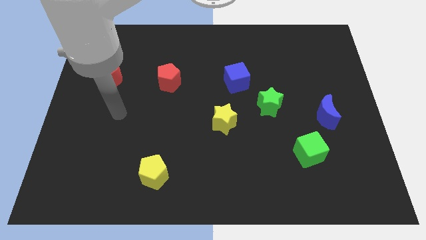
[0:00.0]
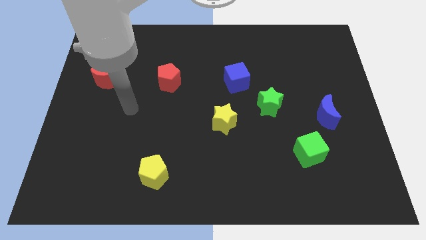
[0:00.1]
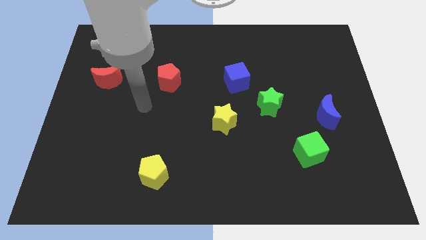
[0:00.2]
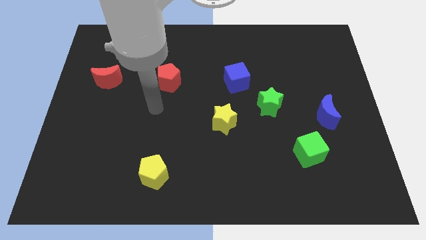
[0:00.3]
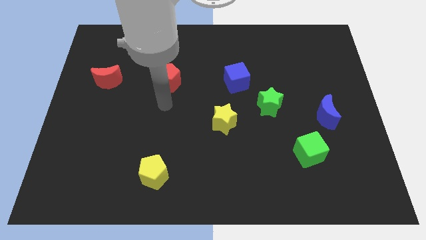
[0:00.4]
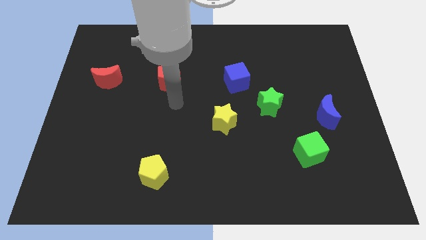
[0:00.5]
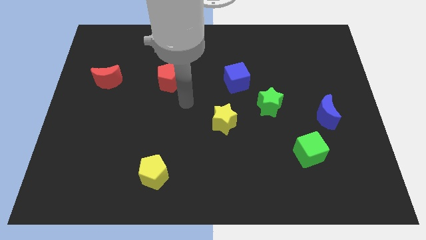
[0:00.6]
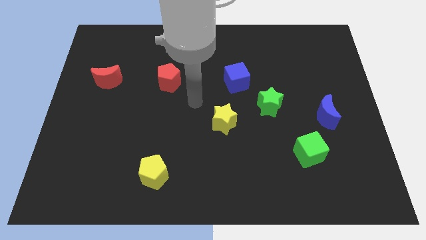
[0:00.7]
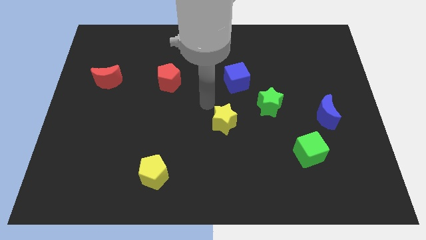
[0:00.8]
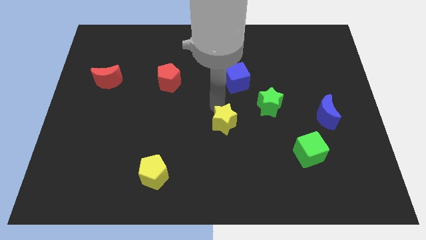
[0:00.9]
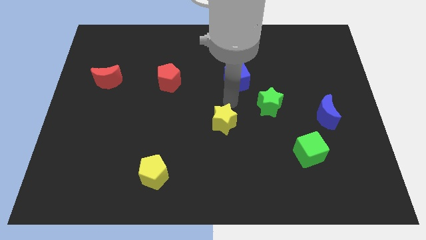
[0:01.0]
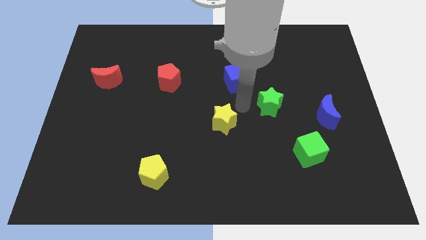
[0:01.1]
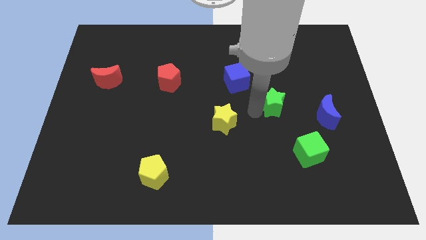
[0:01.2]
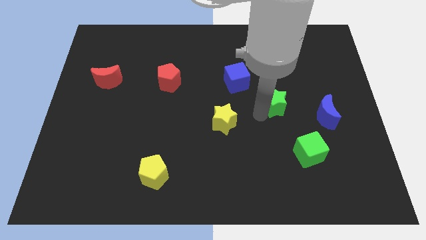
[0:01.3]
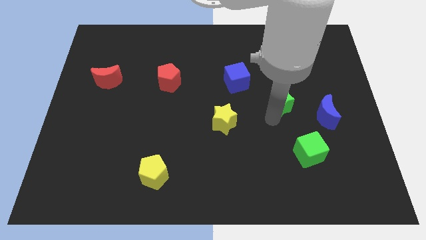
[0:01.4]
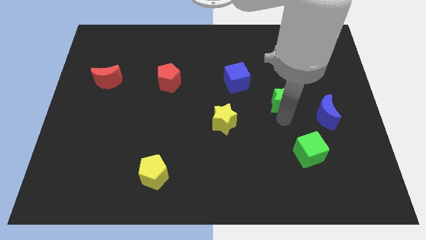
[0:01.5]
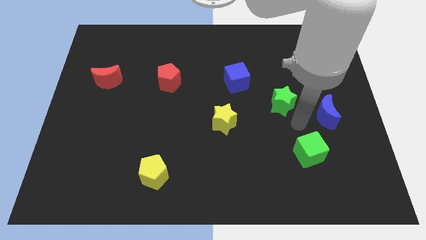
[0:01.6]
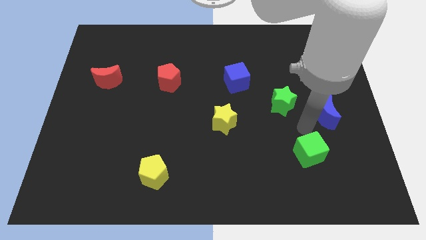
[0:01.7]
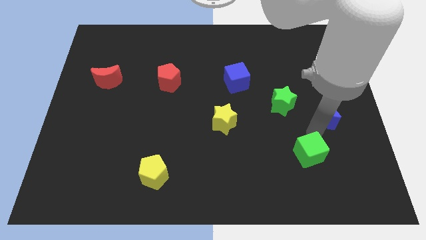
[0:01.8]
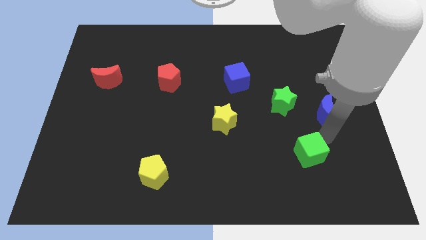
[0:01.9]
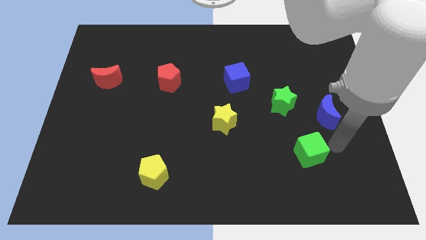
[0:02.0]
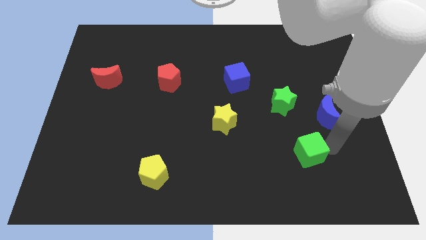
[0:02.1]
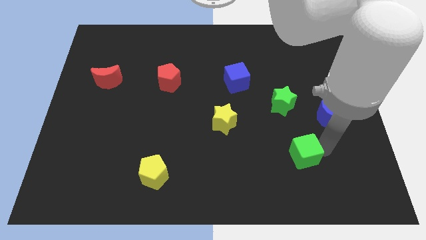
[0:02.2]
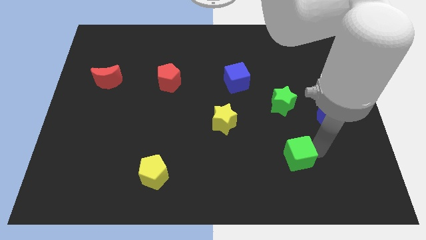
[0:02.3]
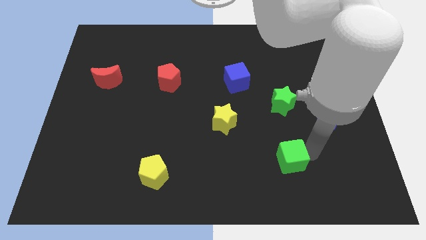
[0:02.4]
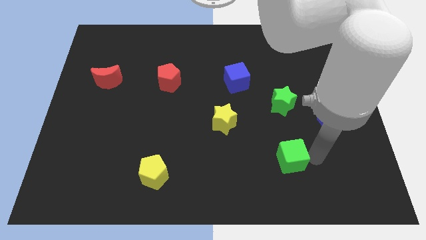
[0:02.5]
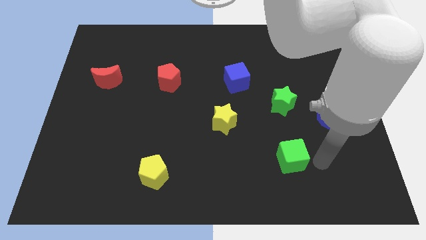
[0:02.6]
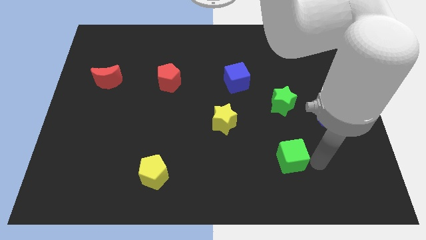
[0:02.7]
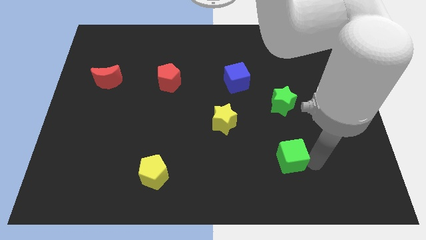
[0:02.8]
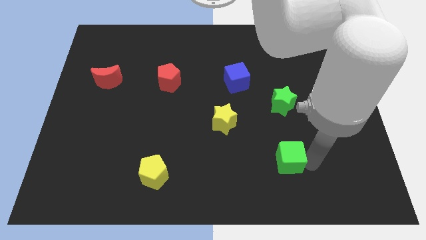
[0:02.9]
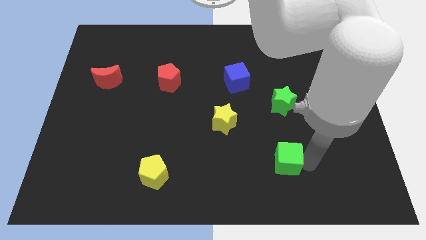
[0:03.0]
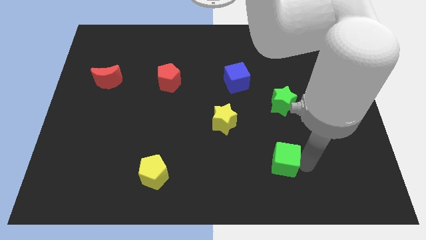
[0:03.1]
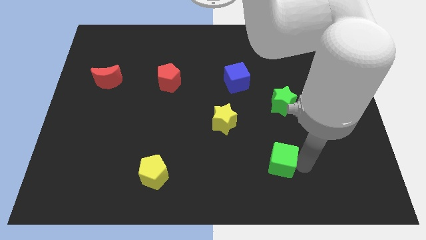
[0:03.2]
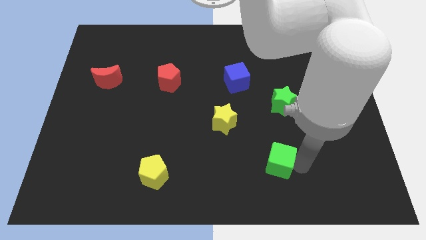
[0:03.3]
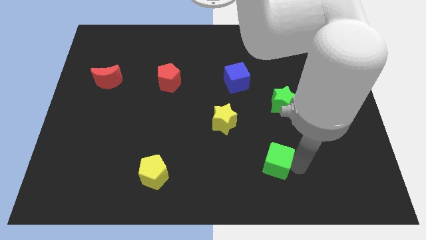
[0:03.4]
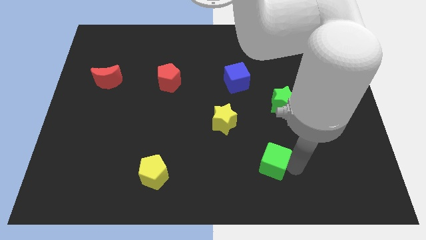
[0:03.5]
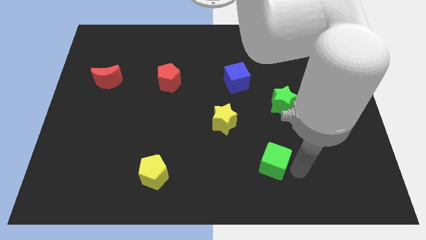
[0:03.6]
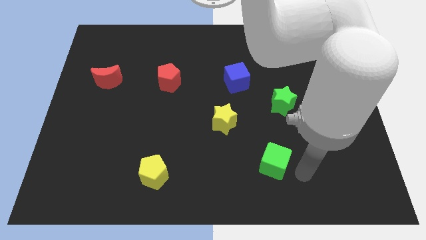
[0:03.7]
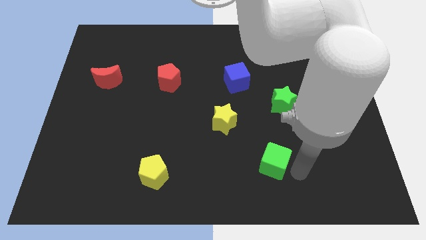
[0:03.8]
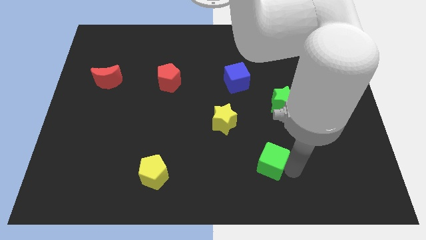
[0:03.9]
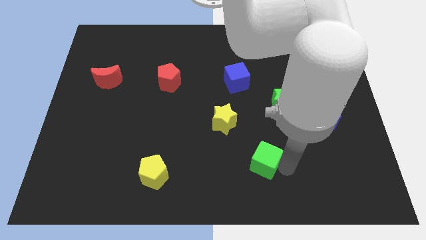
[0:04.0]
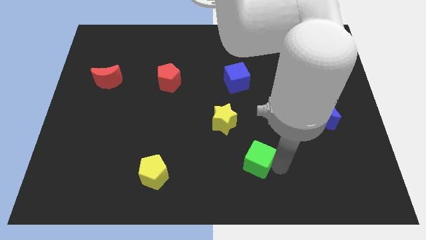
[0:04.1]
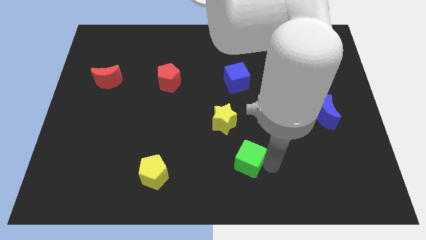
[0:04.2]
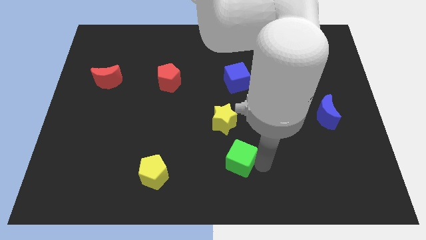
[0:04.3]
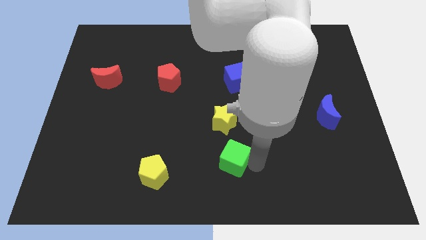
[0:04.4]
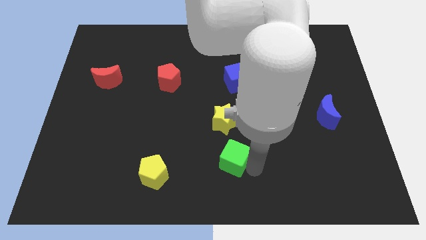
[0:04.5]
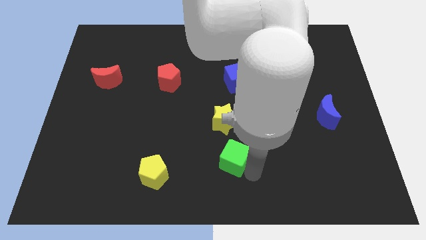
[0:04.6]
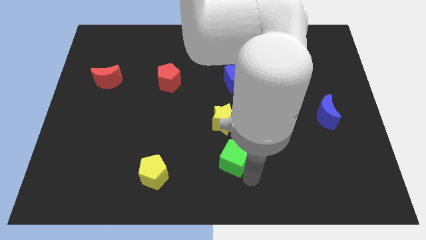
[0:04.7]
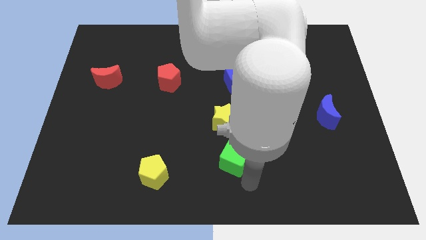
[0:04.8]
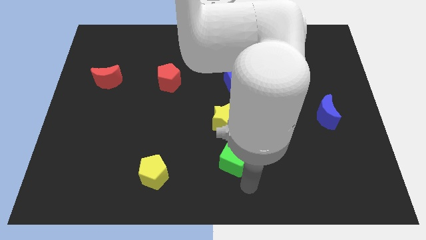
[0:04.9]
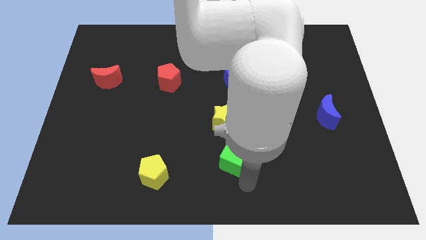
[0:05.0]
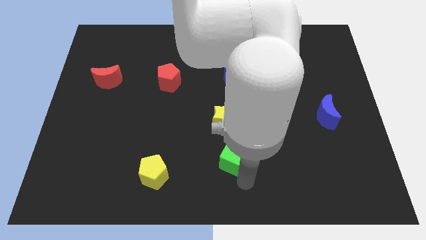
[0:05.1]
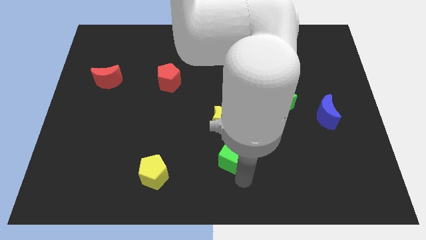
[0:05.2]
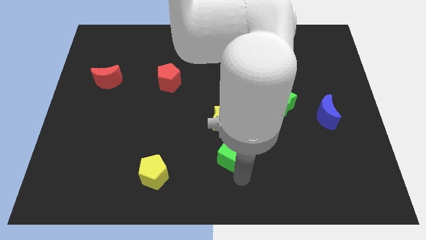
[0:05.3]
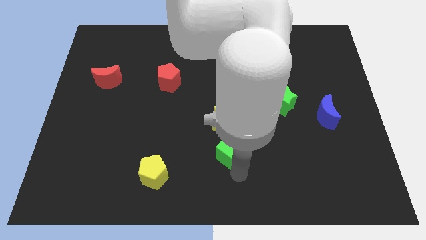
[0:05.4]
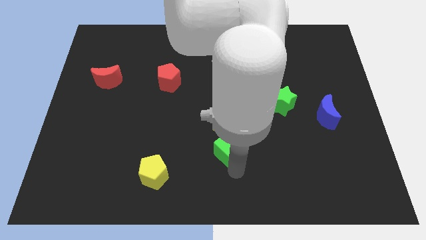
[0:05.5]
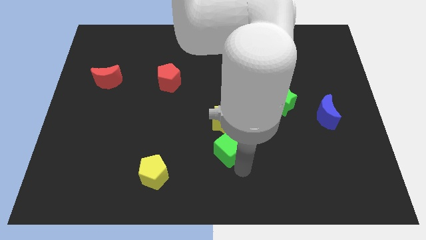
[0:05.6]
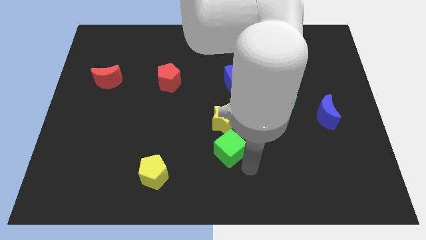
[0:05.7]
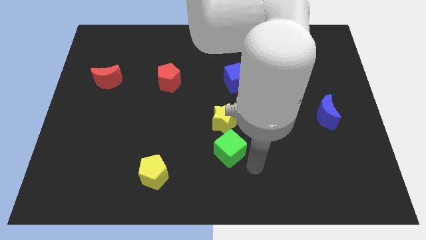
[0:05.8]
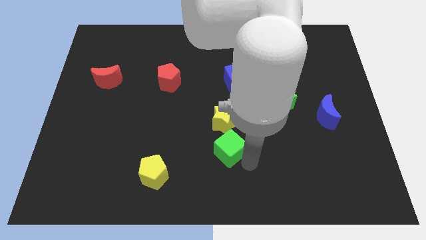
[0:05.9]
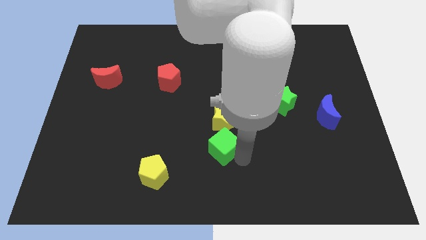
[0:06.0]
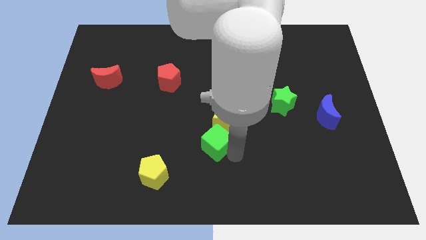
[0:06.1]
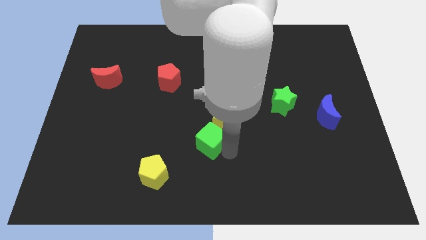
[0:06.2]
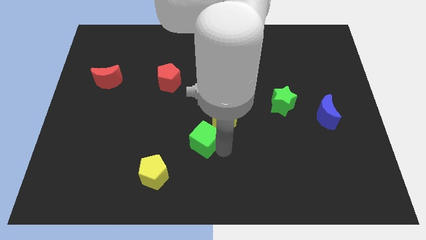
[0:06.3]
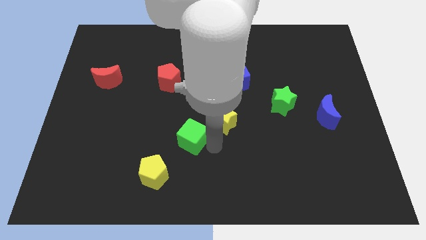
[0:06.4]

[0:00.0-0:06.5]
push the green cube left of the yellow star

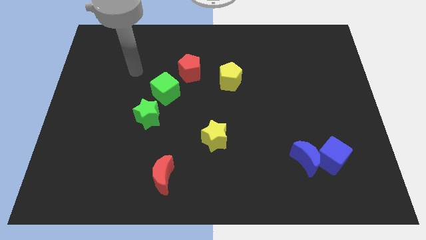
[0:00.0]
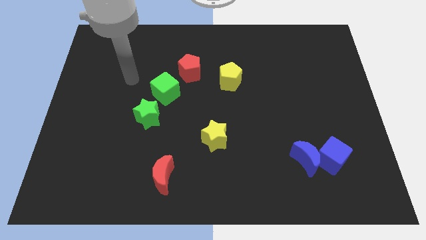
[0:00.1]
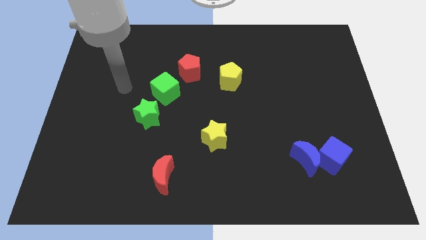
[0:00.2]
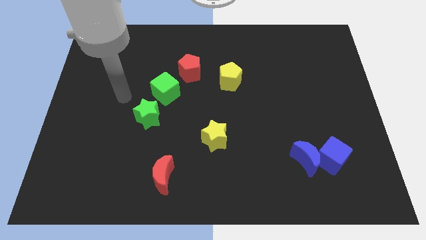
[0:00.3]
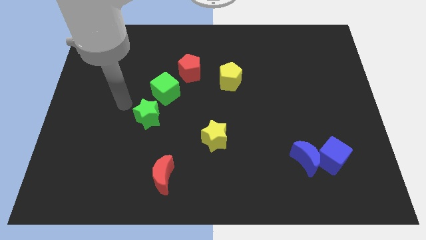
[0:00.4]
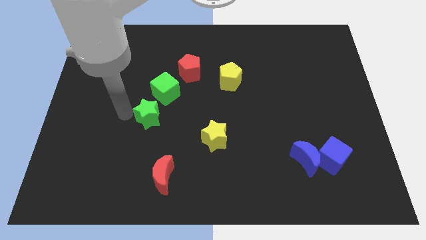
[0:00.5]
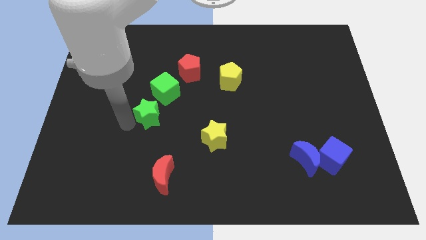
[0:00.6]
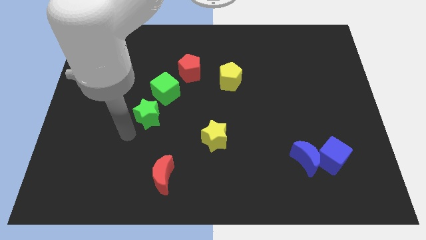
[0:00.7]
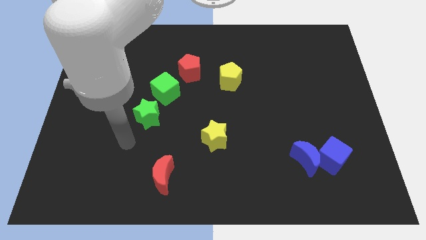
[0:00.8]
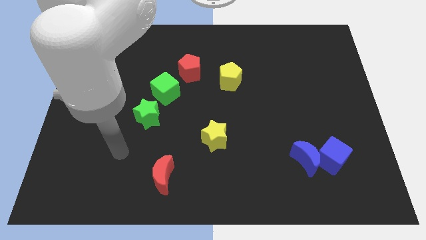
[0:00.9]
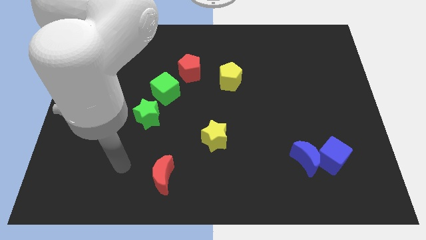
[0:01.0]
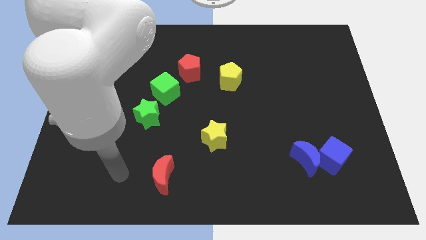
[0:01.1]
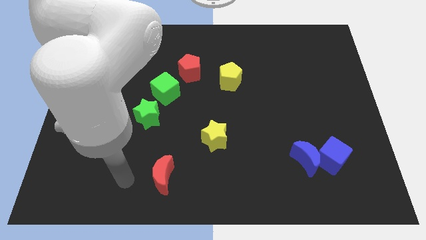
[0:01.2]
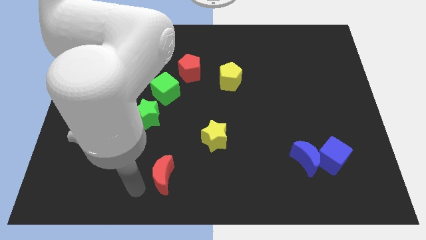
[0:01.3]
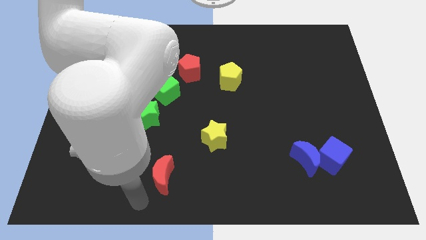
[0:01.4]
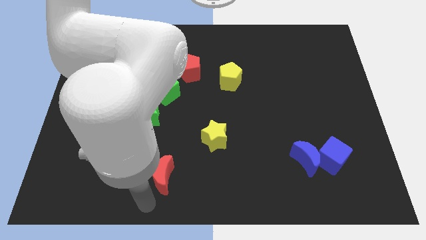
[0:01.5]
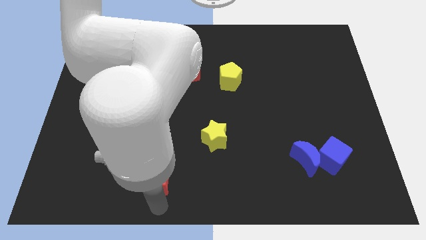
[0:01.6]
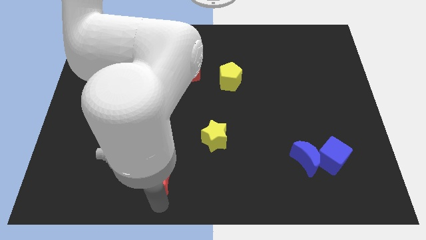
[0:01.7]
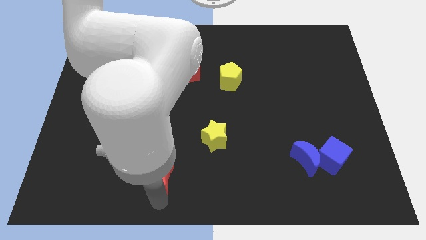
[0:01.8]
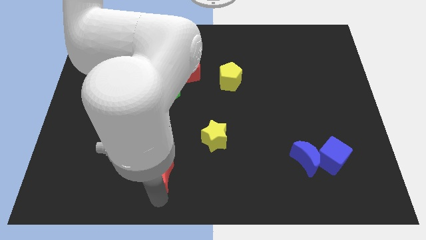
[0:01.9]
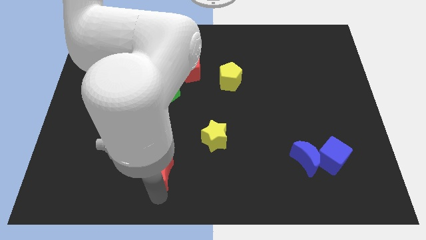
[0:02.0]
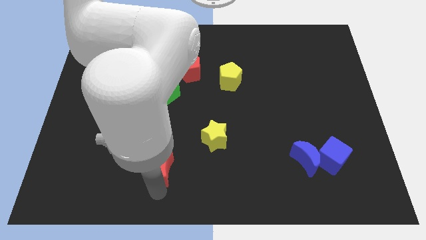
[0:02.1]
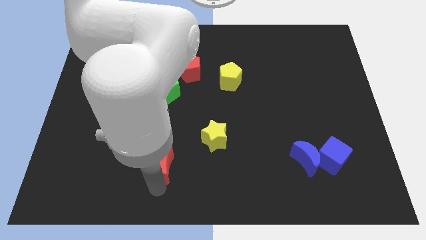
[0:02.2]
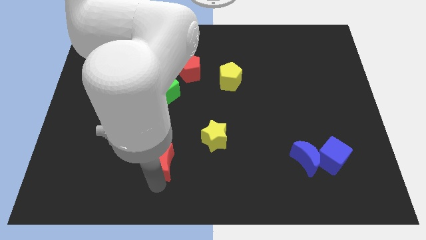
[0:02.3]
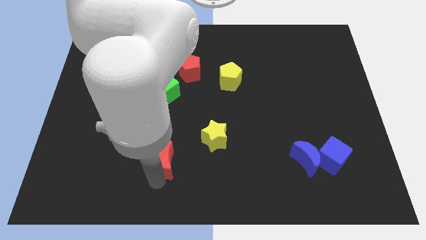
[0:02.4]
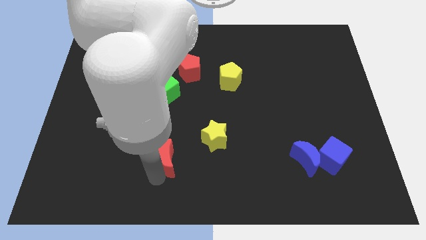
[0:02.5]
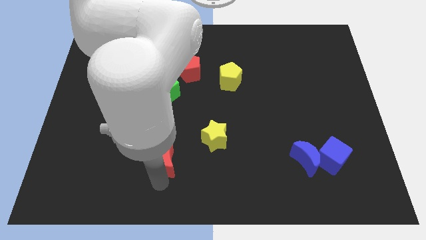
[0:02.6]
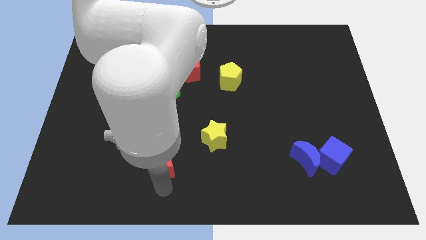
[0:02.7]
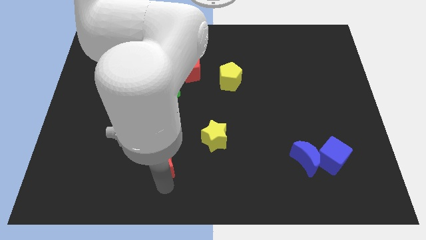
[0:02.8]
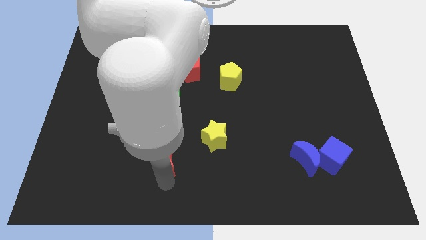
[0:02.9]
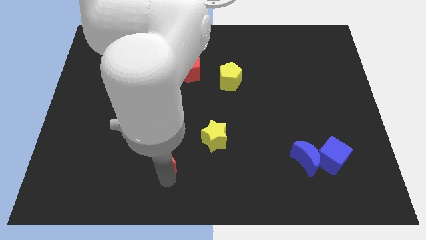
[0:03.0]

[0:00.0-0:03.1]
push the red moon to the left of the yellow star
